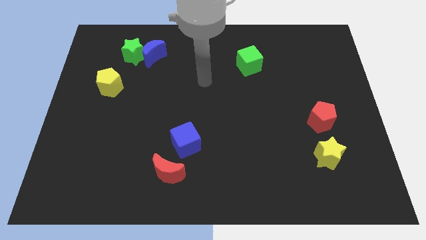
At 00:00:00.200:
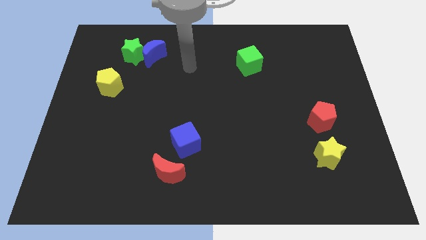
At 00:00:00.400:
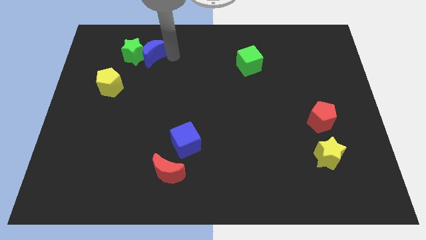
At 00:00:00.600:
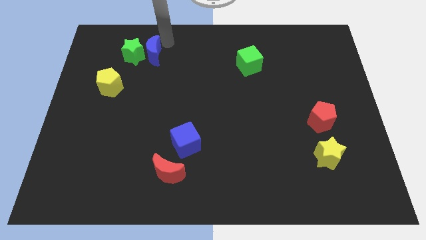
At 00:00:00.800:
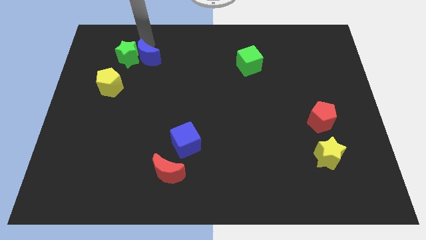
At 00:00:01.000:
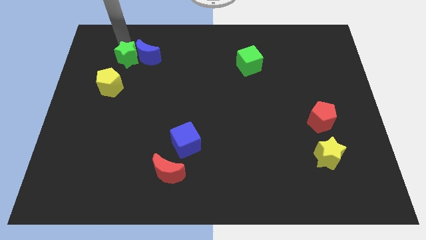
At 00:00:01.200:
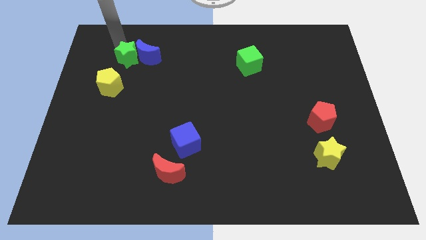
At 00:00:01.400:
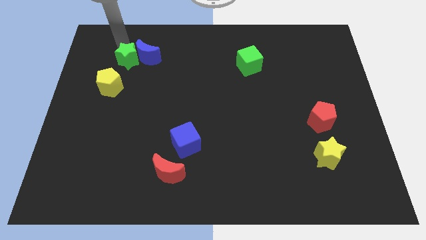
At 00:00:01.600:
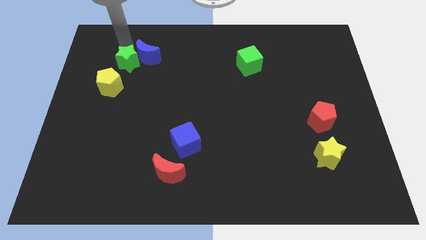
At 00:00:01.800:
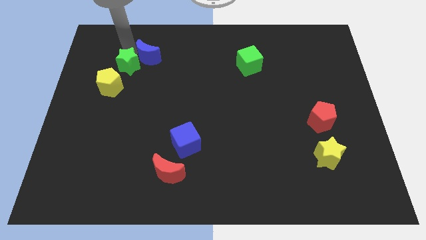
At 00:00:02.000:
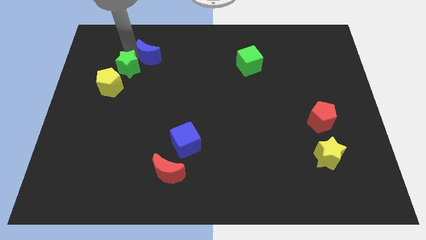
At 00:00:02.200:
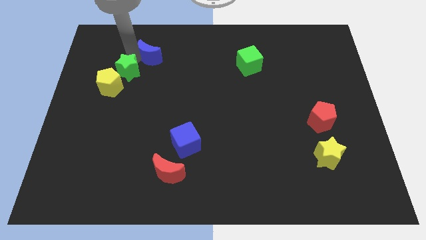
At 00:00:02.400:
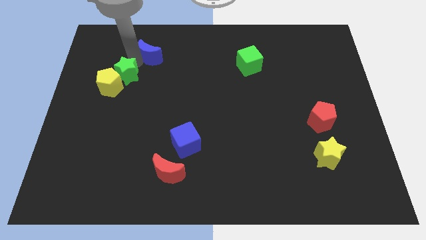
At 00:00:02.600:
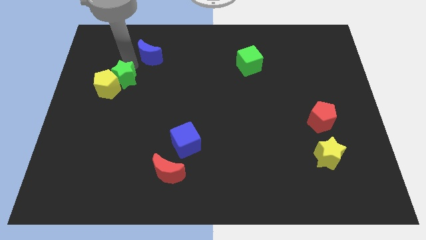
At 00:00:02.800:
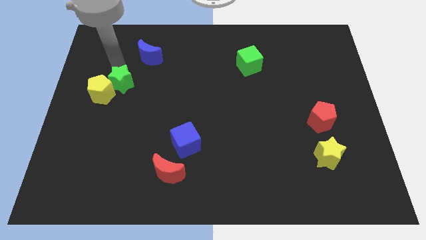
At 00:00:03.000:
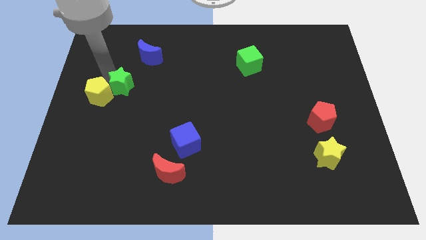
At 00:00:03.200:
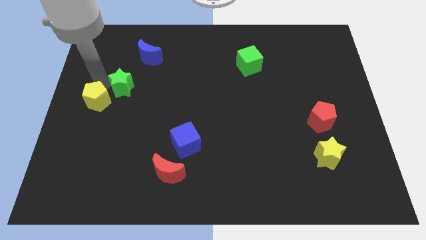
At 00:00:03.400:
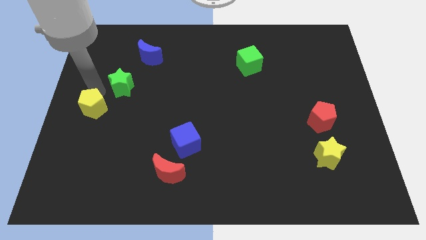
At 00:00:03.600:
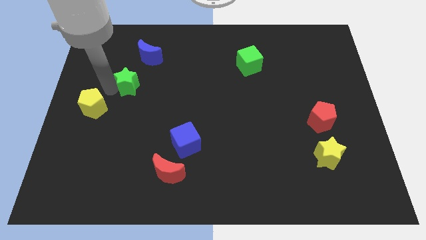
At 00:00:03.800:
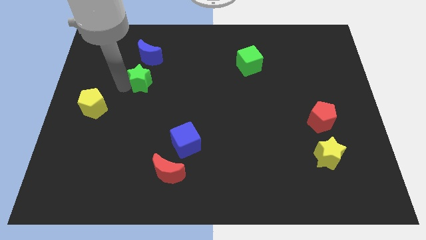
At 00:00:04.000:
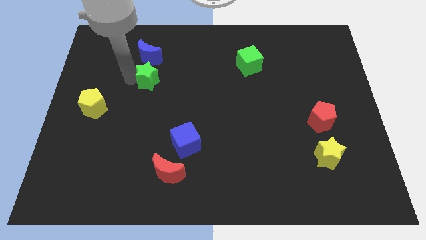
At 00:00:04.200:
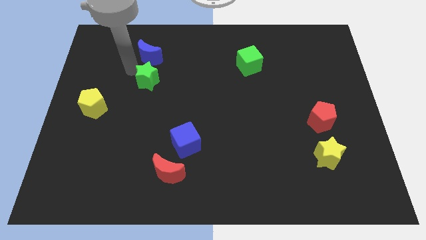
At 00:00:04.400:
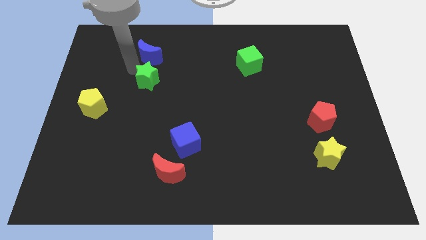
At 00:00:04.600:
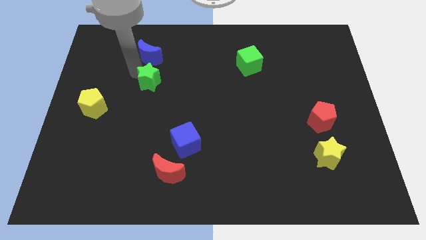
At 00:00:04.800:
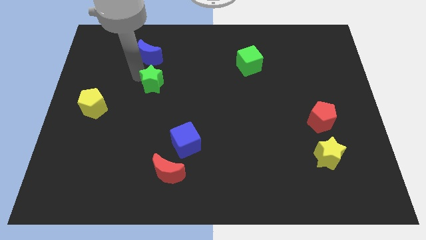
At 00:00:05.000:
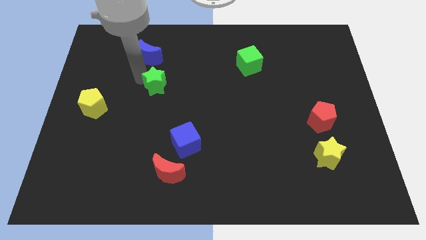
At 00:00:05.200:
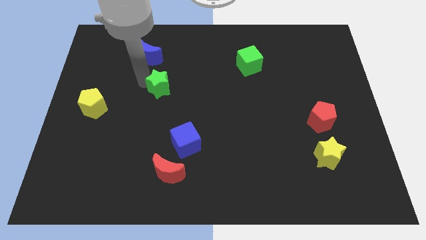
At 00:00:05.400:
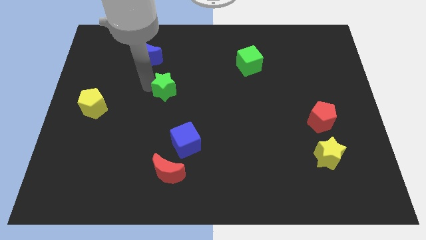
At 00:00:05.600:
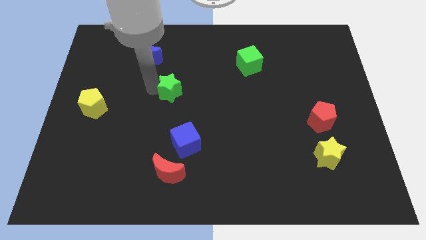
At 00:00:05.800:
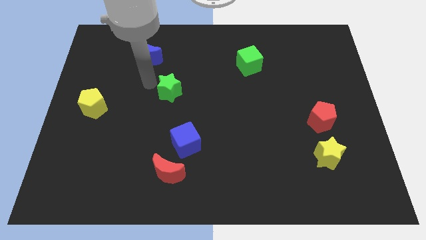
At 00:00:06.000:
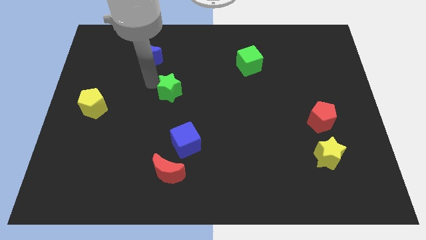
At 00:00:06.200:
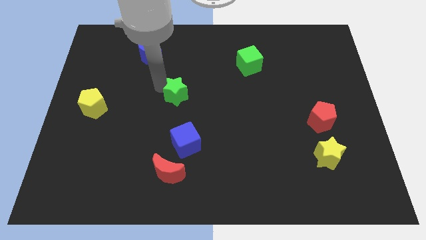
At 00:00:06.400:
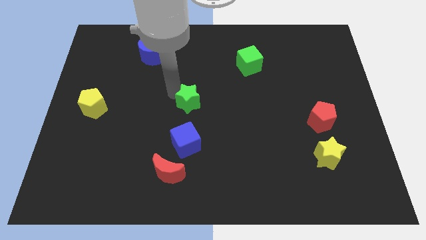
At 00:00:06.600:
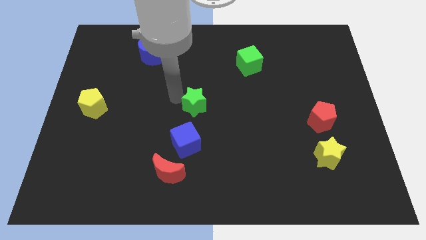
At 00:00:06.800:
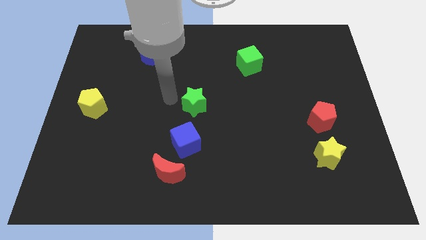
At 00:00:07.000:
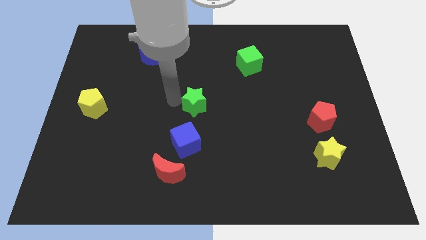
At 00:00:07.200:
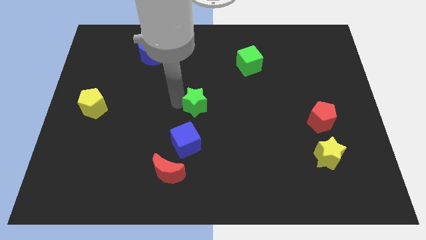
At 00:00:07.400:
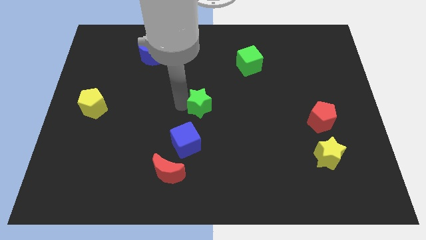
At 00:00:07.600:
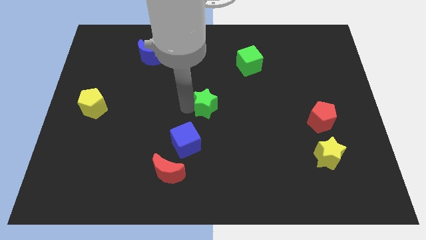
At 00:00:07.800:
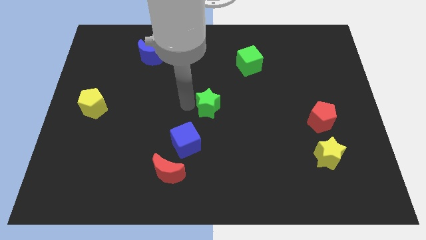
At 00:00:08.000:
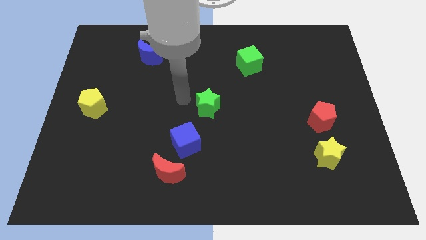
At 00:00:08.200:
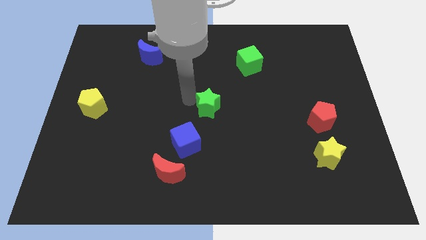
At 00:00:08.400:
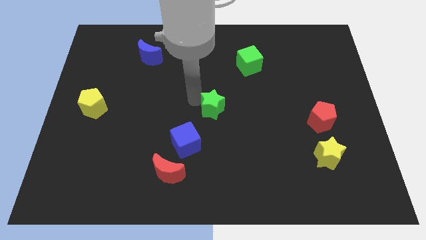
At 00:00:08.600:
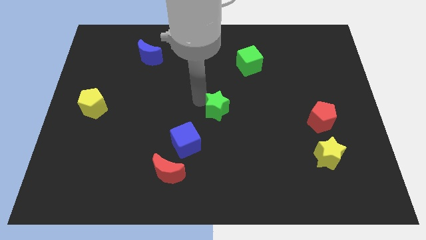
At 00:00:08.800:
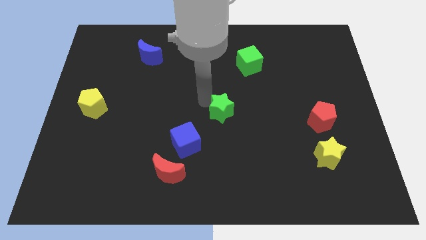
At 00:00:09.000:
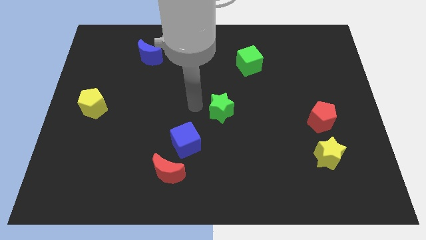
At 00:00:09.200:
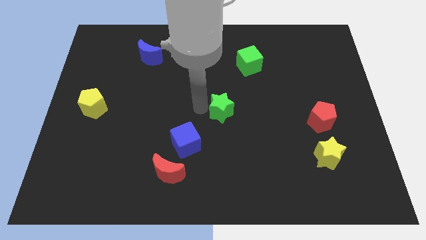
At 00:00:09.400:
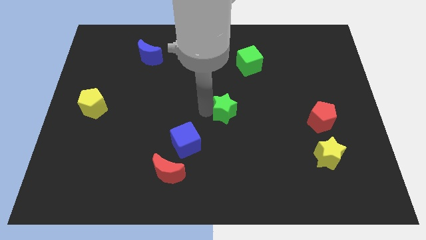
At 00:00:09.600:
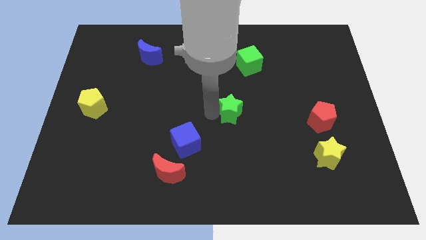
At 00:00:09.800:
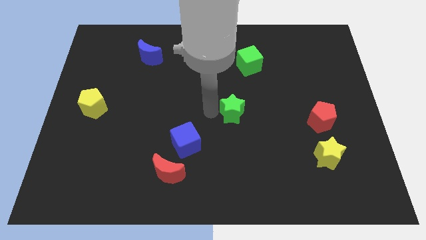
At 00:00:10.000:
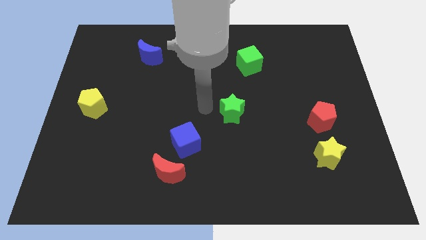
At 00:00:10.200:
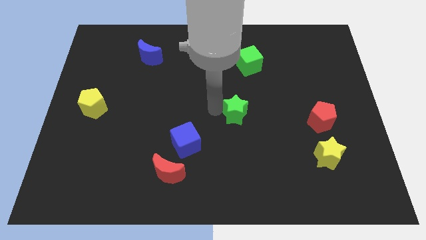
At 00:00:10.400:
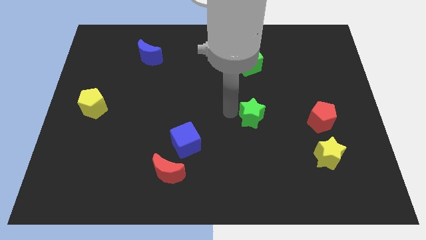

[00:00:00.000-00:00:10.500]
slide the green star to the left side of the red pentagon

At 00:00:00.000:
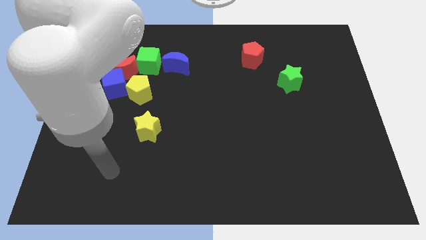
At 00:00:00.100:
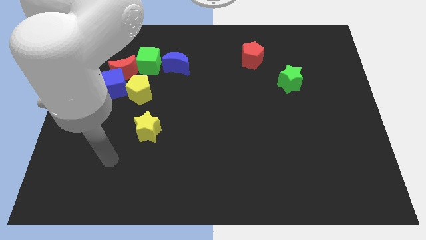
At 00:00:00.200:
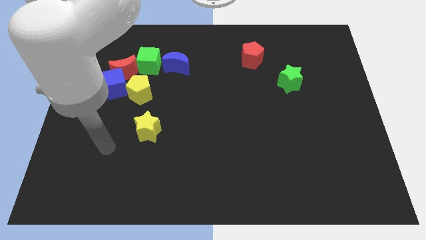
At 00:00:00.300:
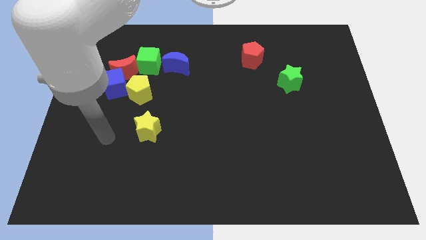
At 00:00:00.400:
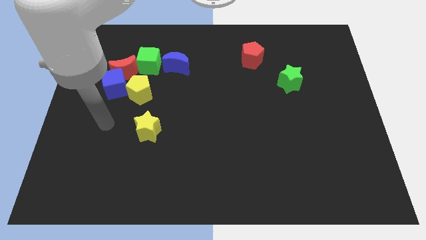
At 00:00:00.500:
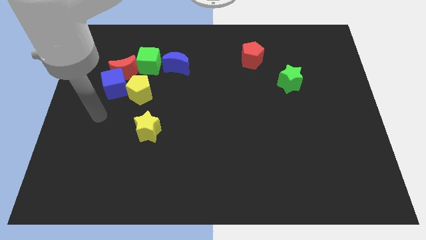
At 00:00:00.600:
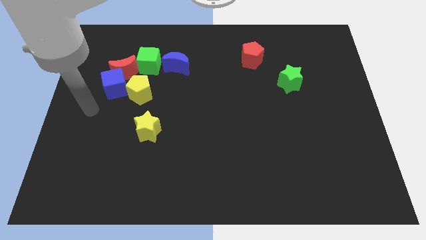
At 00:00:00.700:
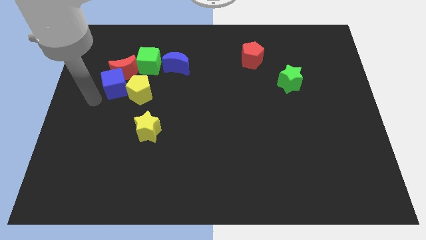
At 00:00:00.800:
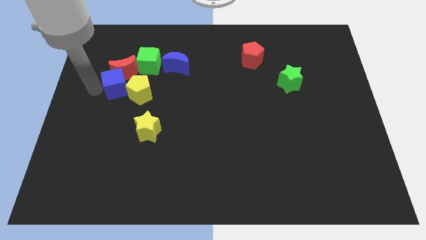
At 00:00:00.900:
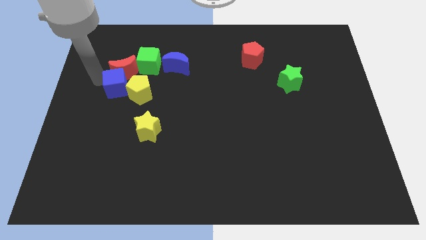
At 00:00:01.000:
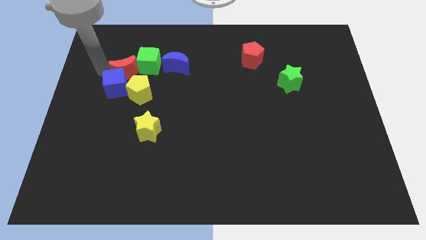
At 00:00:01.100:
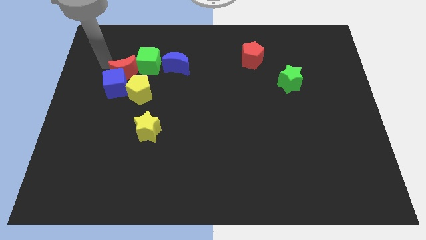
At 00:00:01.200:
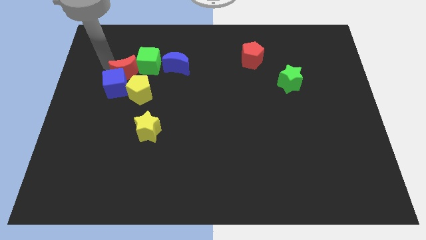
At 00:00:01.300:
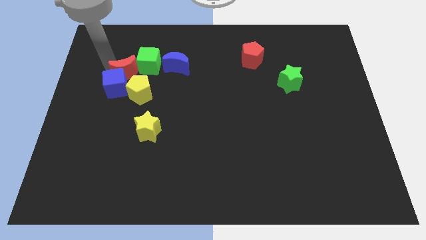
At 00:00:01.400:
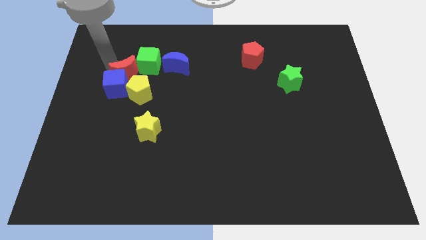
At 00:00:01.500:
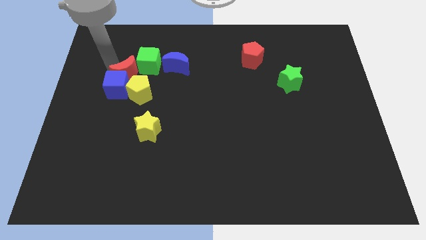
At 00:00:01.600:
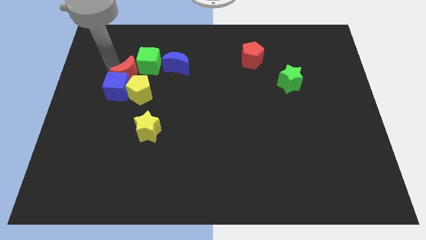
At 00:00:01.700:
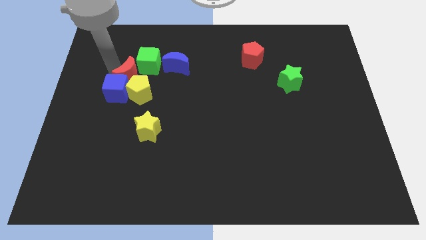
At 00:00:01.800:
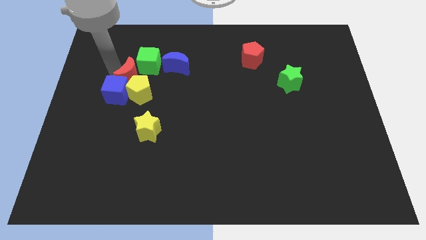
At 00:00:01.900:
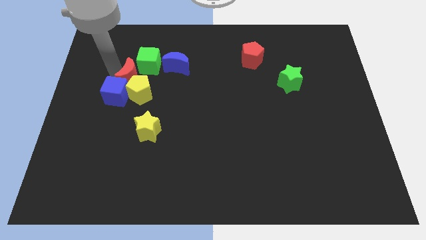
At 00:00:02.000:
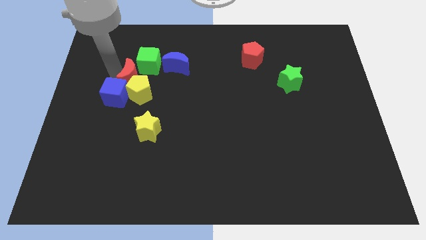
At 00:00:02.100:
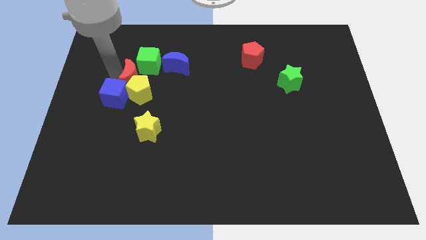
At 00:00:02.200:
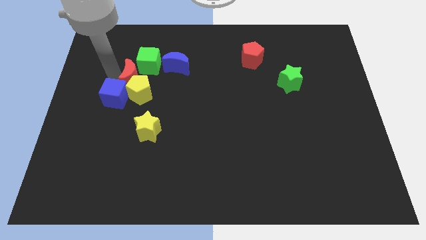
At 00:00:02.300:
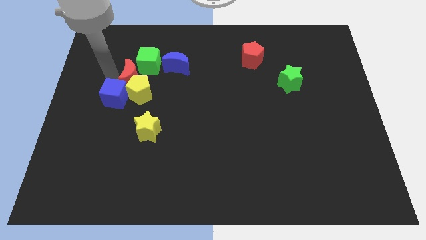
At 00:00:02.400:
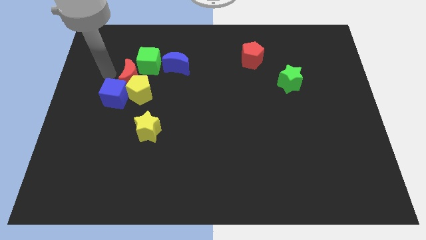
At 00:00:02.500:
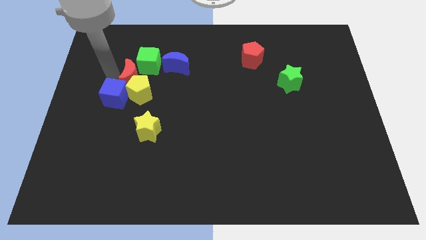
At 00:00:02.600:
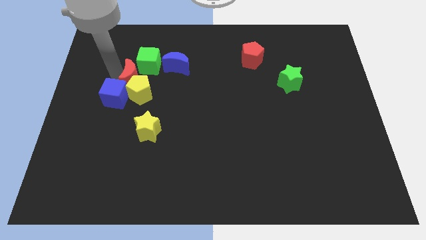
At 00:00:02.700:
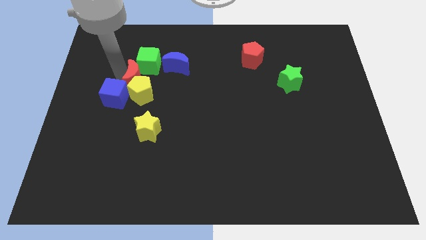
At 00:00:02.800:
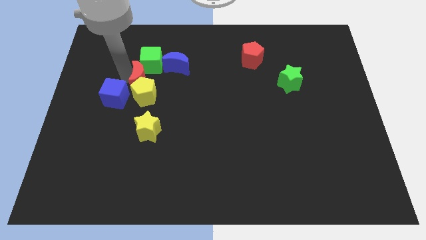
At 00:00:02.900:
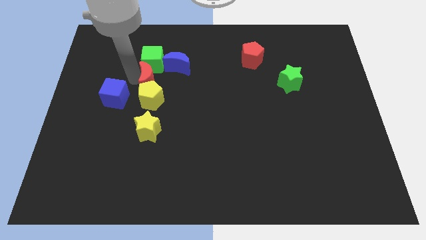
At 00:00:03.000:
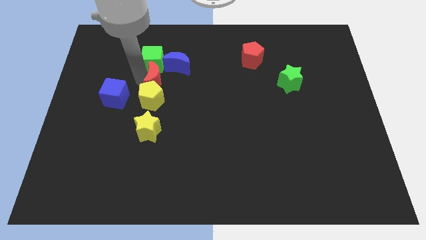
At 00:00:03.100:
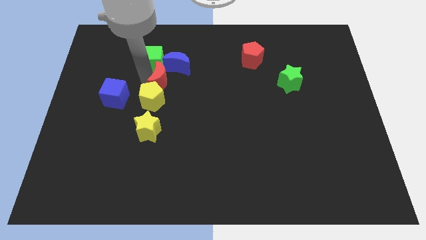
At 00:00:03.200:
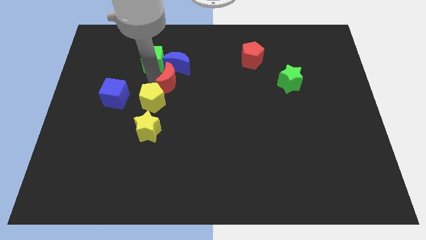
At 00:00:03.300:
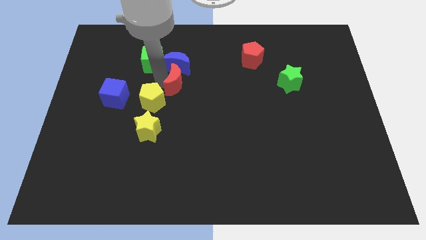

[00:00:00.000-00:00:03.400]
push the red moon to the bottom right of the blue moon
